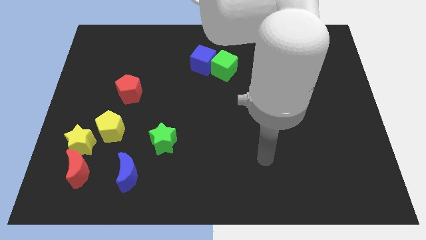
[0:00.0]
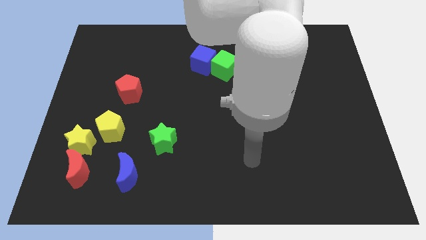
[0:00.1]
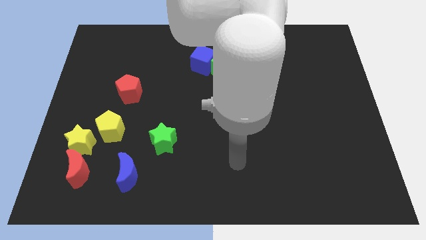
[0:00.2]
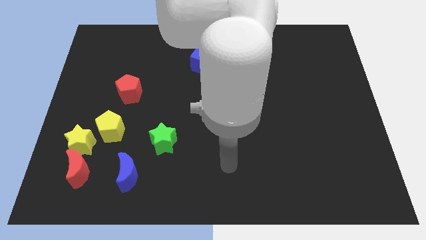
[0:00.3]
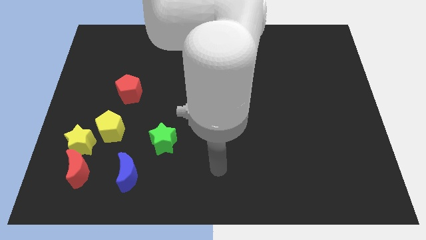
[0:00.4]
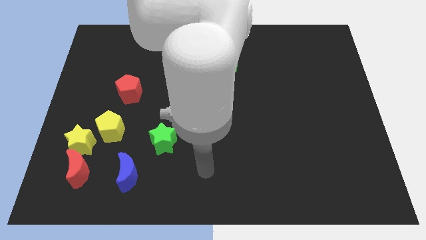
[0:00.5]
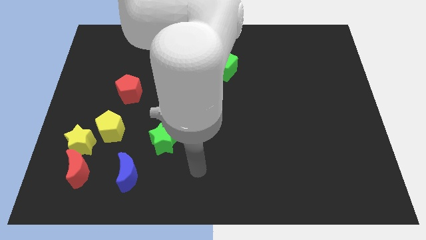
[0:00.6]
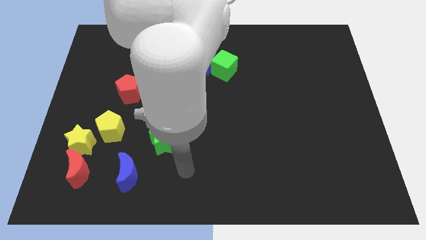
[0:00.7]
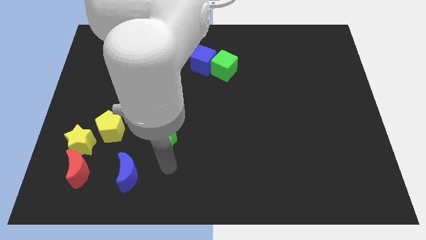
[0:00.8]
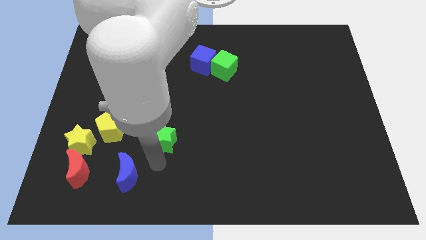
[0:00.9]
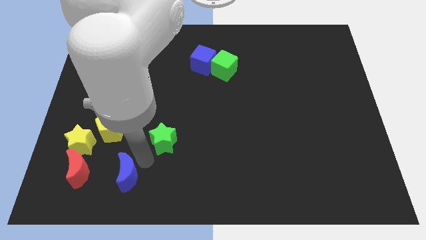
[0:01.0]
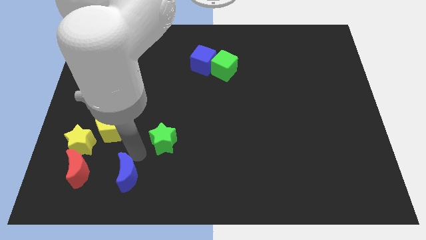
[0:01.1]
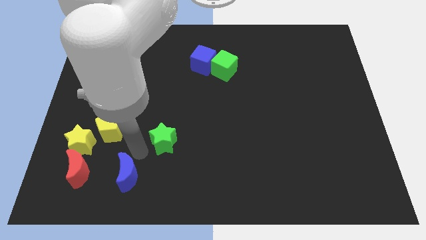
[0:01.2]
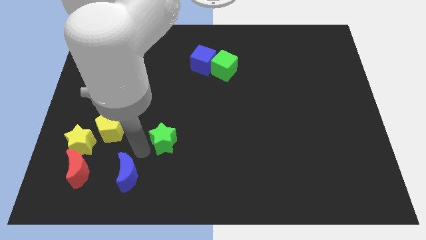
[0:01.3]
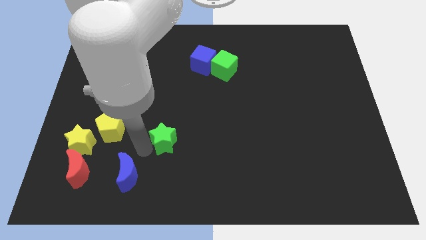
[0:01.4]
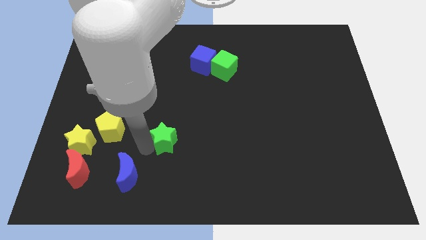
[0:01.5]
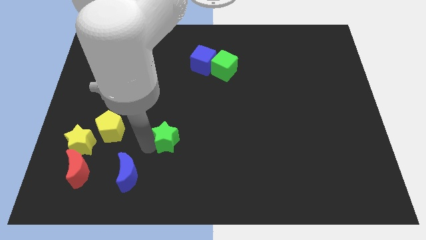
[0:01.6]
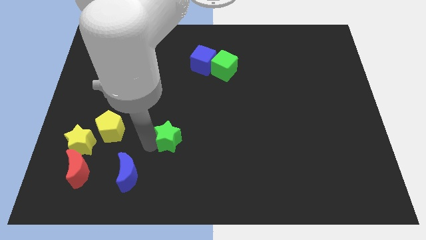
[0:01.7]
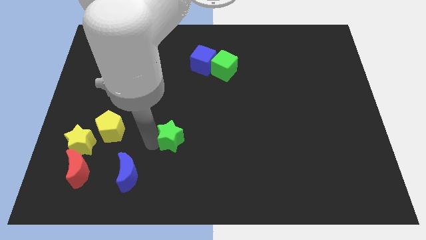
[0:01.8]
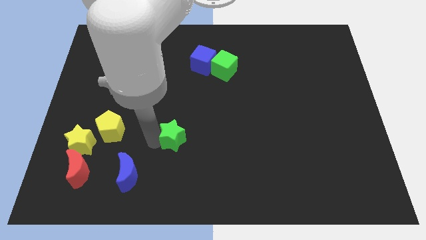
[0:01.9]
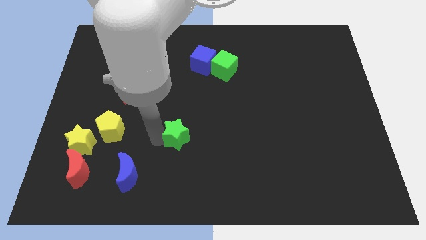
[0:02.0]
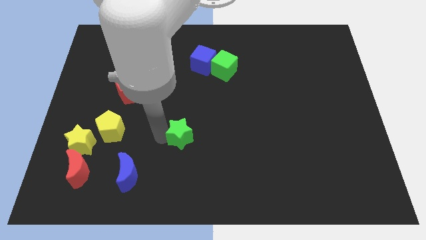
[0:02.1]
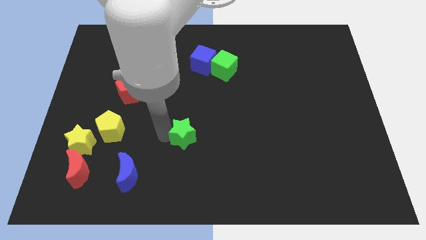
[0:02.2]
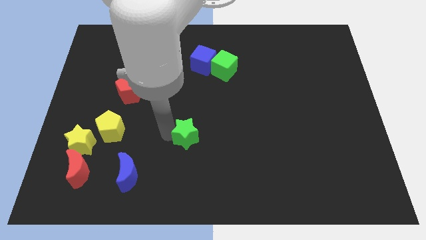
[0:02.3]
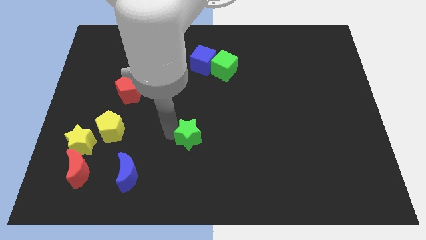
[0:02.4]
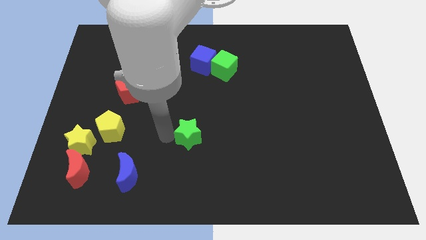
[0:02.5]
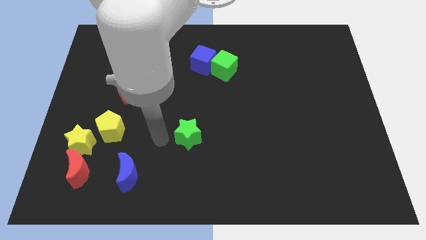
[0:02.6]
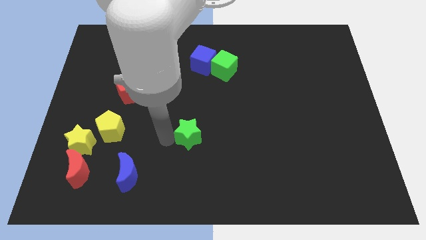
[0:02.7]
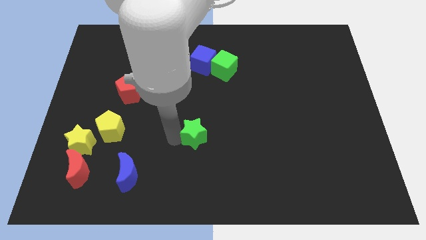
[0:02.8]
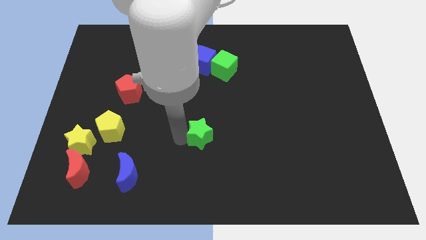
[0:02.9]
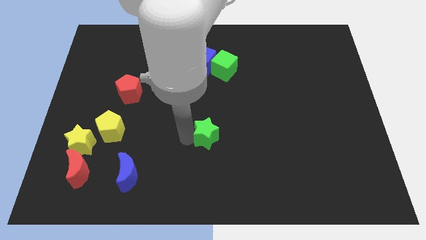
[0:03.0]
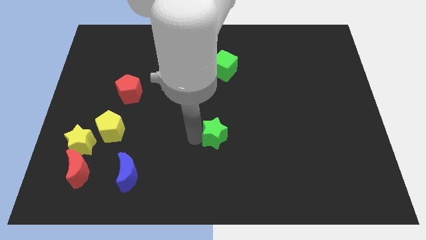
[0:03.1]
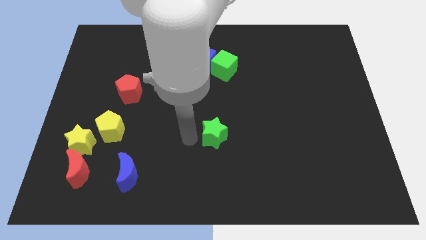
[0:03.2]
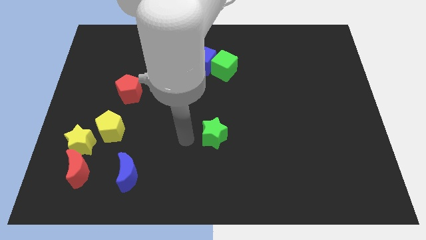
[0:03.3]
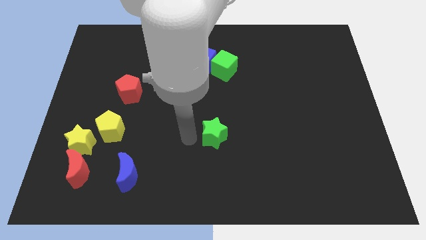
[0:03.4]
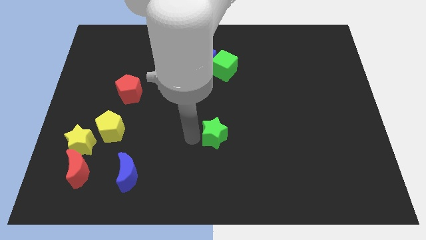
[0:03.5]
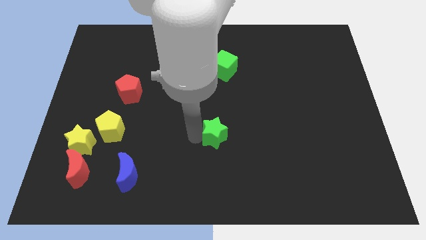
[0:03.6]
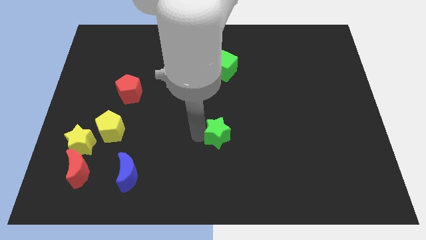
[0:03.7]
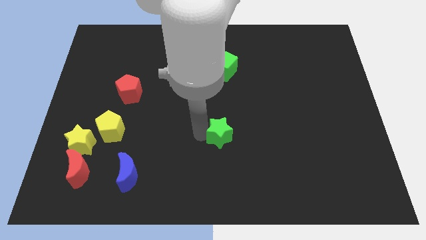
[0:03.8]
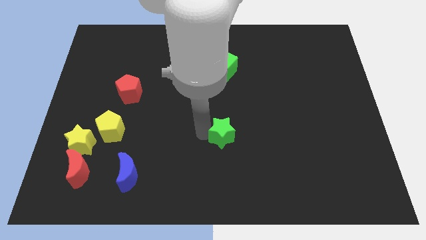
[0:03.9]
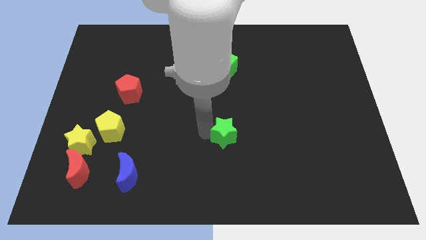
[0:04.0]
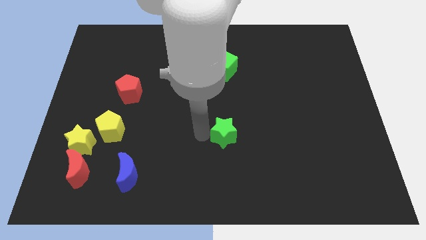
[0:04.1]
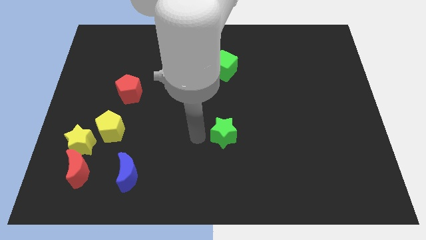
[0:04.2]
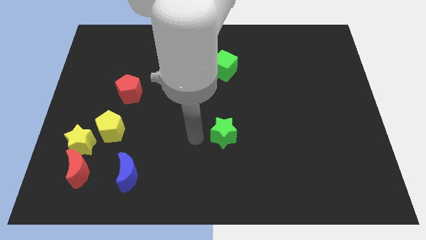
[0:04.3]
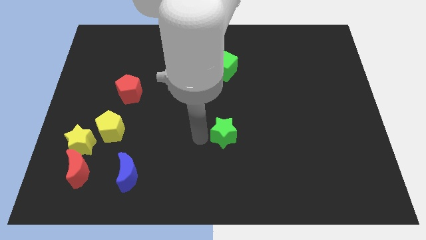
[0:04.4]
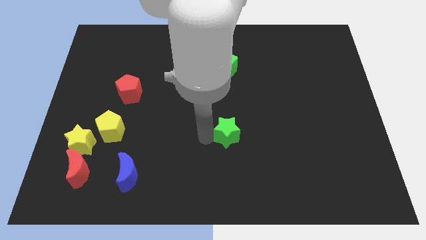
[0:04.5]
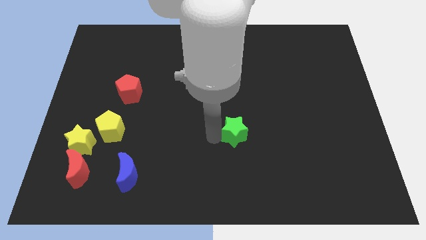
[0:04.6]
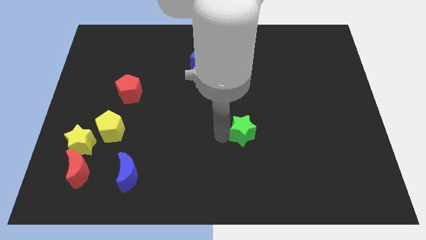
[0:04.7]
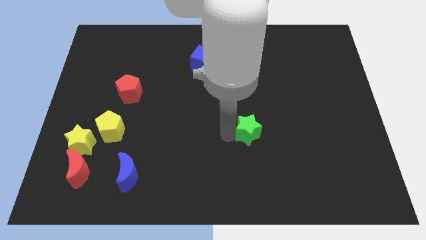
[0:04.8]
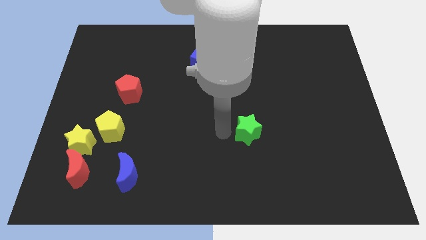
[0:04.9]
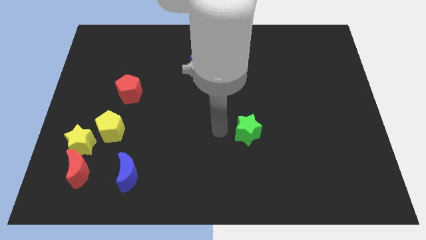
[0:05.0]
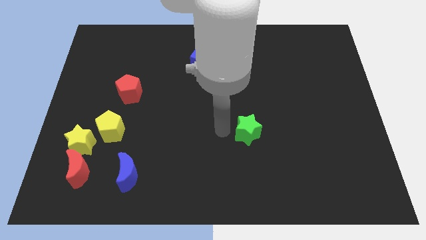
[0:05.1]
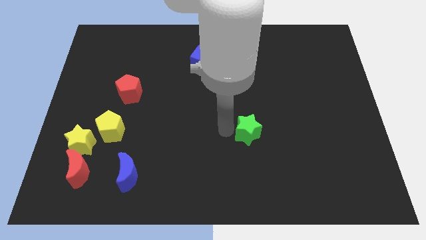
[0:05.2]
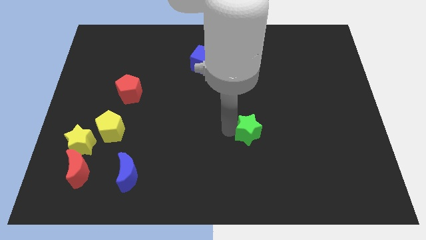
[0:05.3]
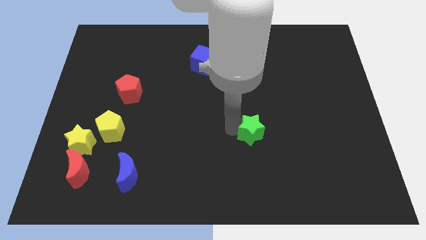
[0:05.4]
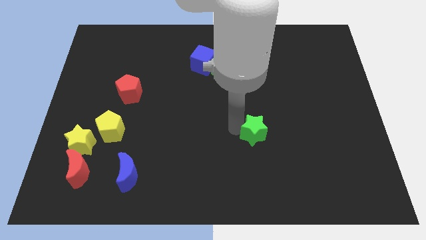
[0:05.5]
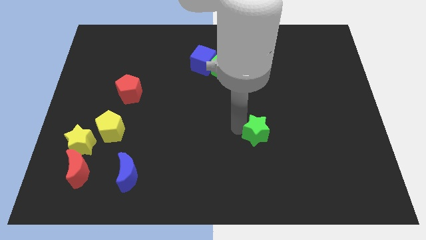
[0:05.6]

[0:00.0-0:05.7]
slide the green star to the right
